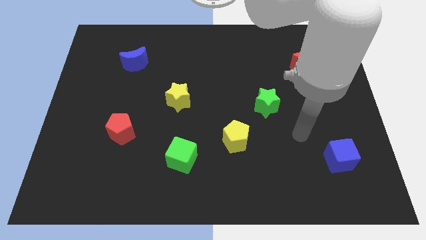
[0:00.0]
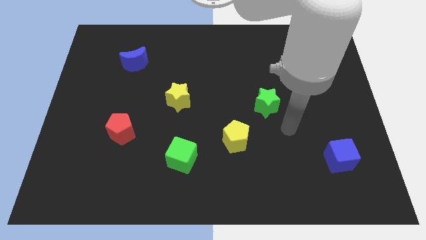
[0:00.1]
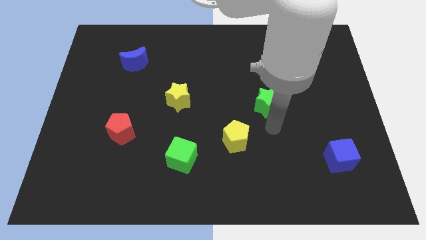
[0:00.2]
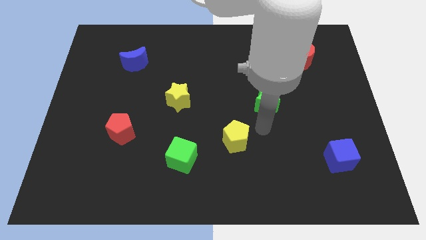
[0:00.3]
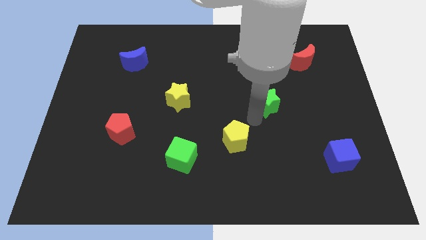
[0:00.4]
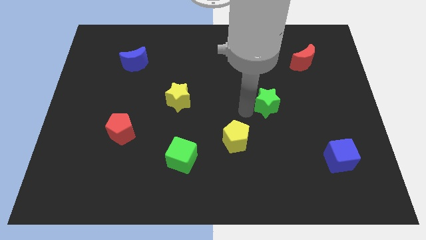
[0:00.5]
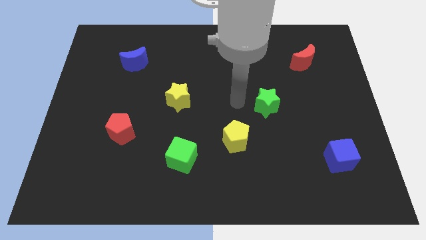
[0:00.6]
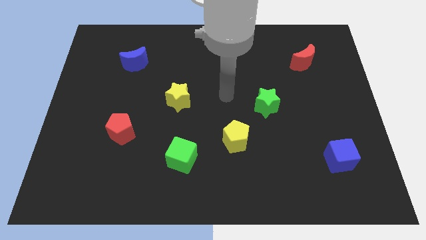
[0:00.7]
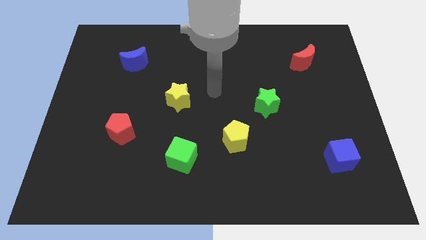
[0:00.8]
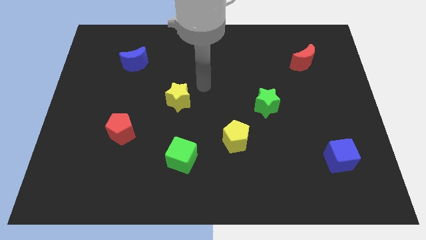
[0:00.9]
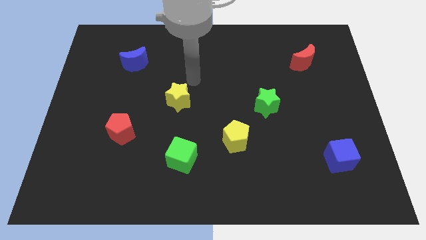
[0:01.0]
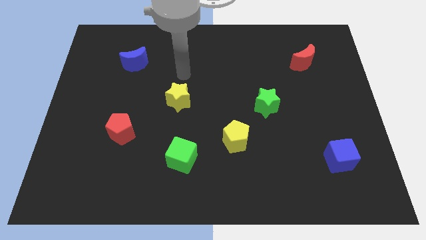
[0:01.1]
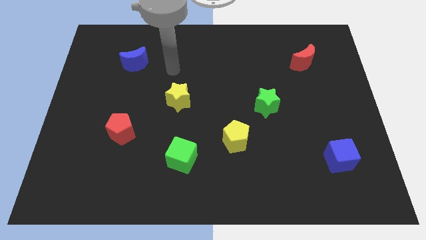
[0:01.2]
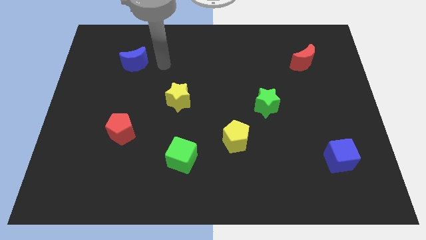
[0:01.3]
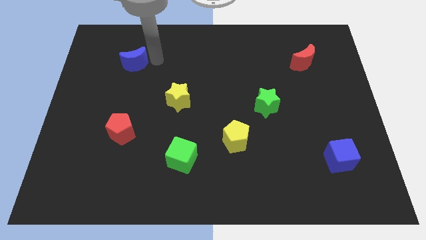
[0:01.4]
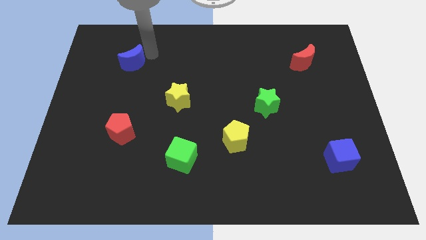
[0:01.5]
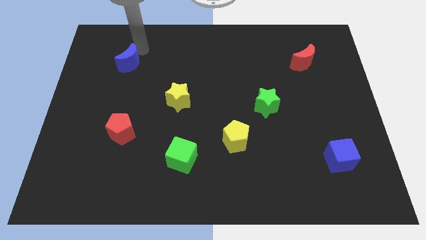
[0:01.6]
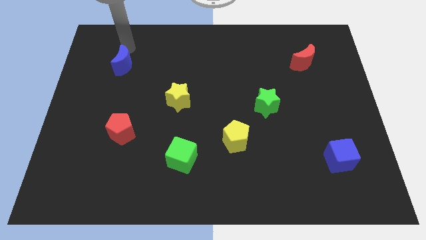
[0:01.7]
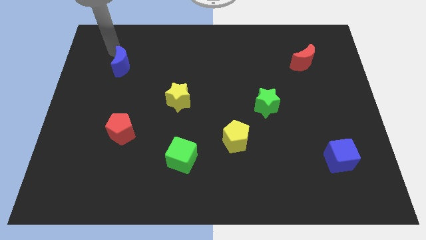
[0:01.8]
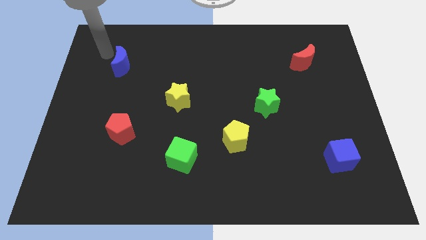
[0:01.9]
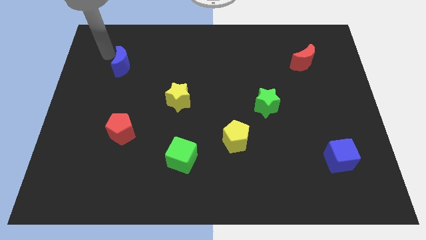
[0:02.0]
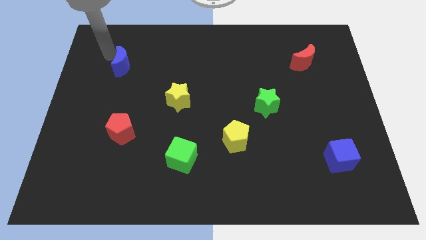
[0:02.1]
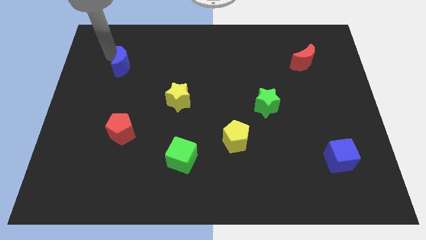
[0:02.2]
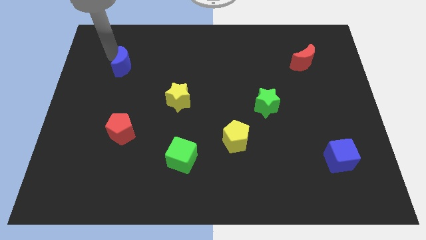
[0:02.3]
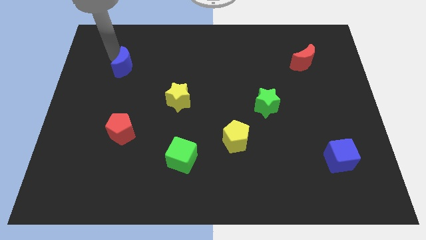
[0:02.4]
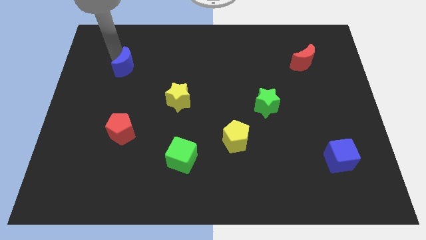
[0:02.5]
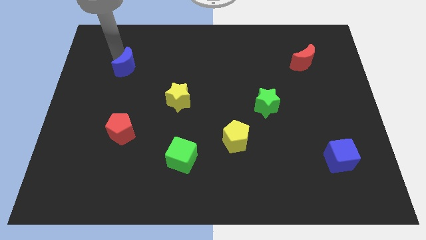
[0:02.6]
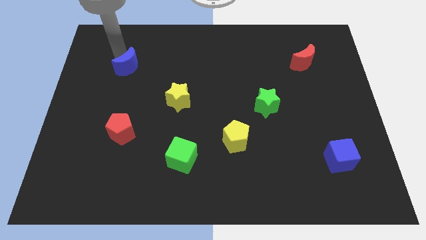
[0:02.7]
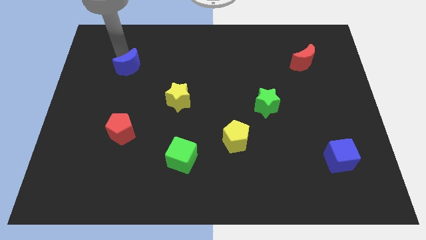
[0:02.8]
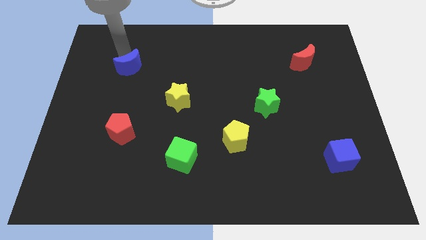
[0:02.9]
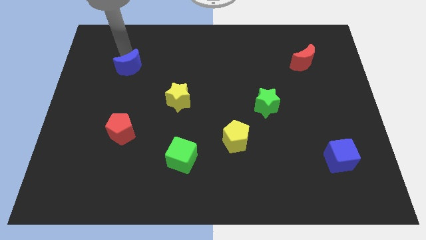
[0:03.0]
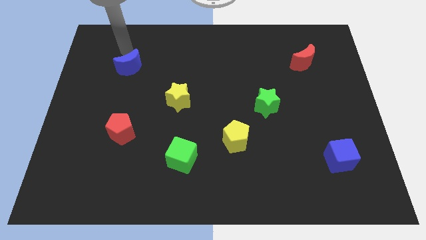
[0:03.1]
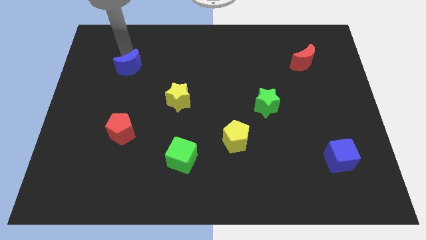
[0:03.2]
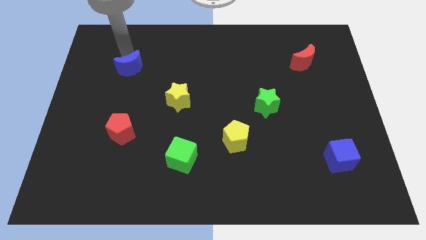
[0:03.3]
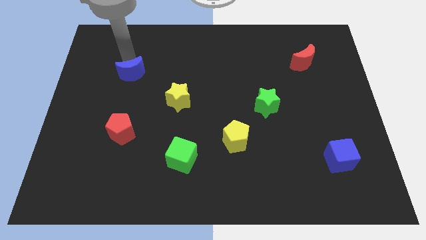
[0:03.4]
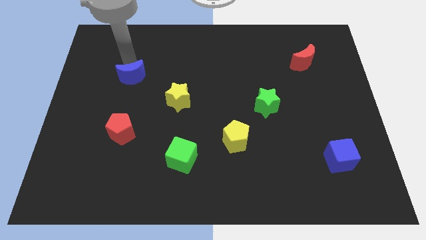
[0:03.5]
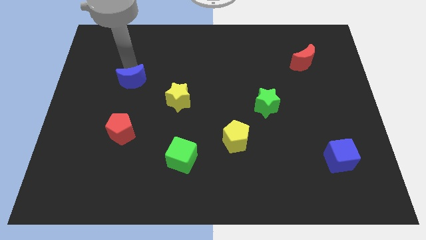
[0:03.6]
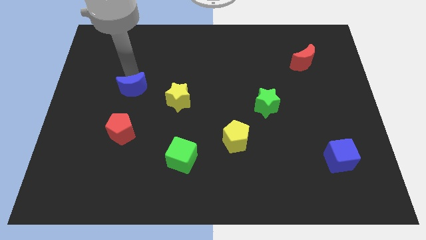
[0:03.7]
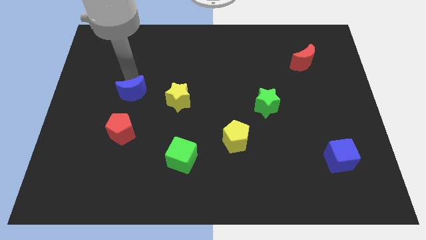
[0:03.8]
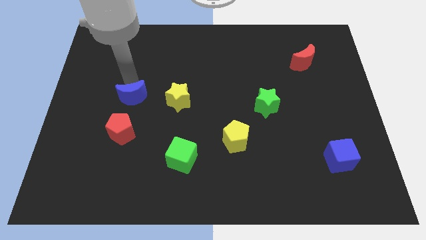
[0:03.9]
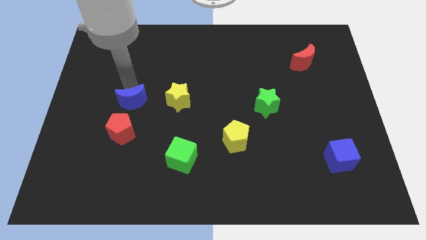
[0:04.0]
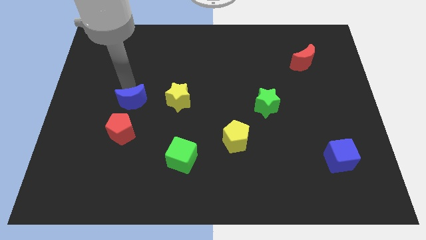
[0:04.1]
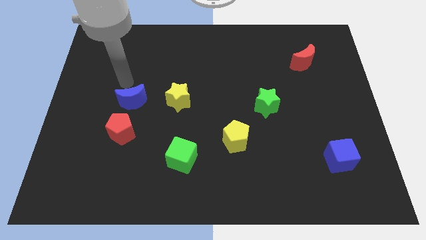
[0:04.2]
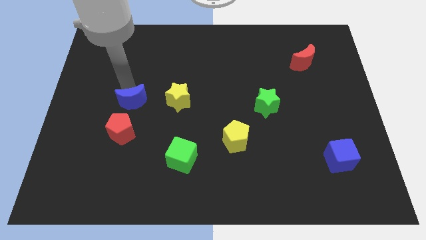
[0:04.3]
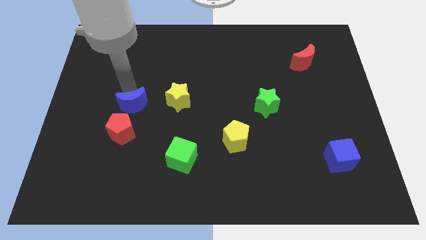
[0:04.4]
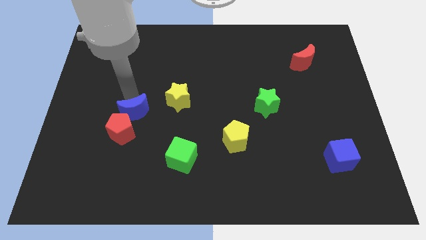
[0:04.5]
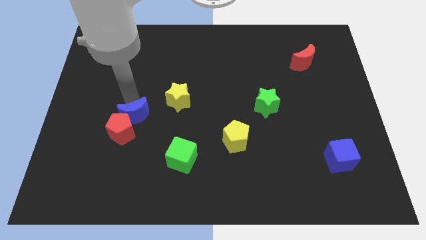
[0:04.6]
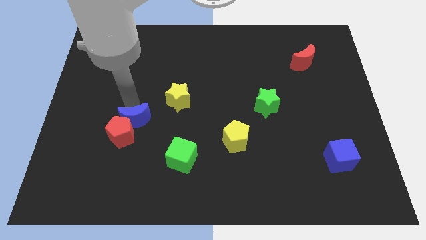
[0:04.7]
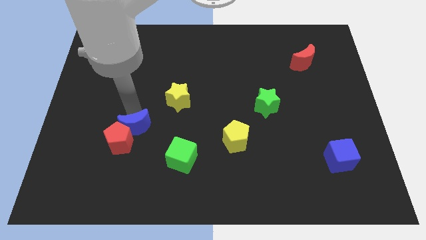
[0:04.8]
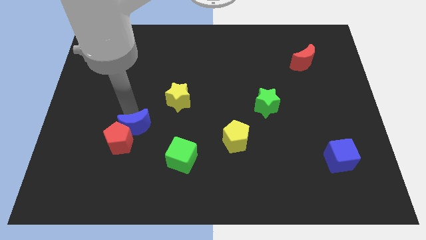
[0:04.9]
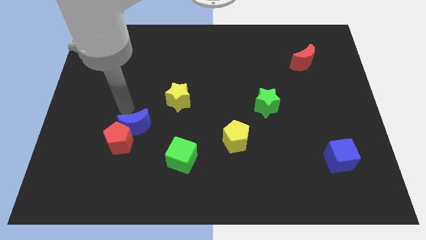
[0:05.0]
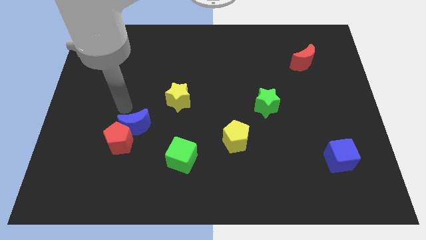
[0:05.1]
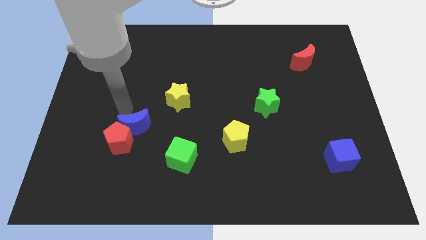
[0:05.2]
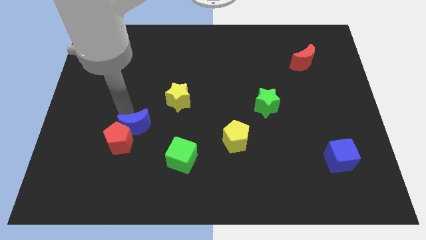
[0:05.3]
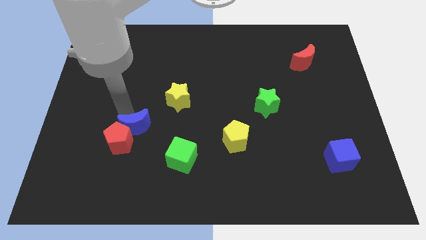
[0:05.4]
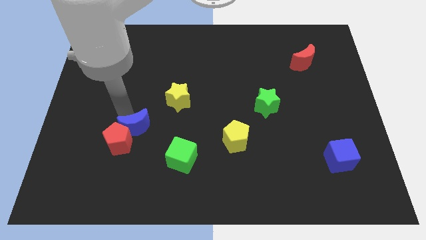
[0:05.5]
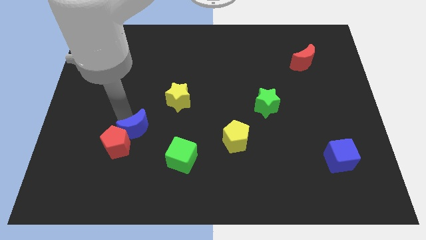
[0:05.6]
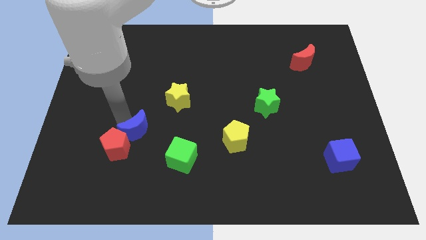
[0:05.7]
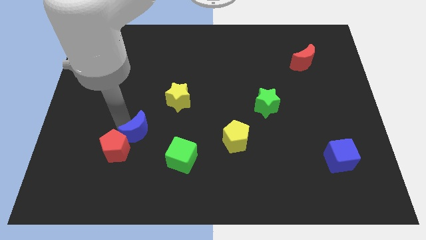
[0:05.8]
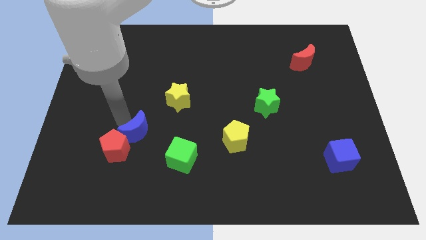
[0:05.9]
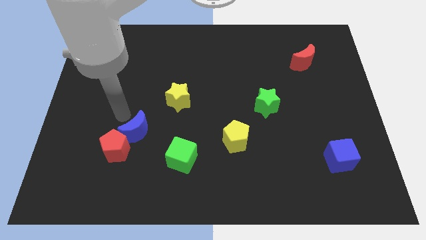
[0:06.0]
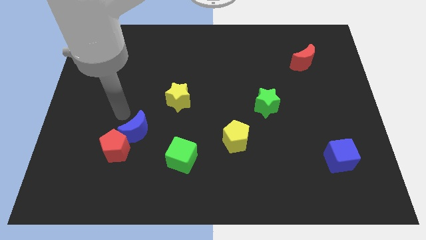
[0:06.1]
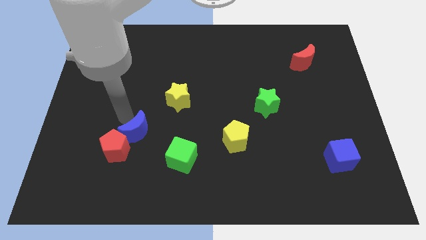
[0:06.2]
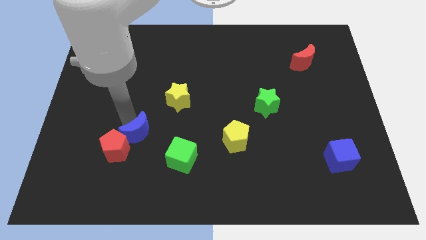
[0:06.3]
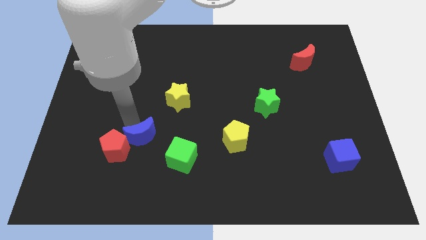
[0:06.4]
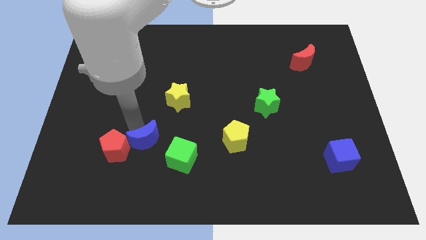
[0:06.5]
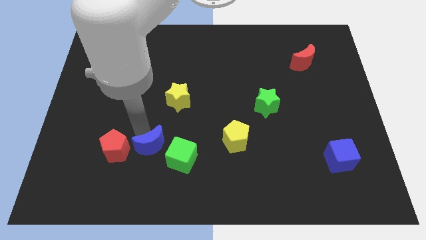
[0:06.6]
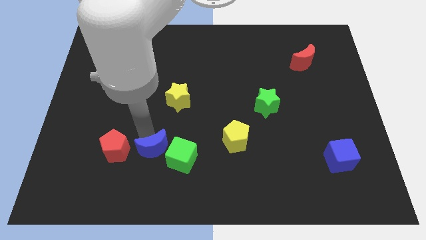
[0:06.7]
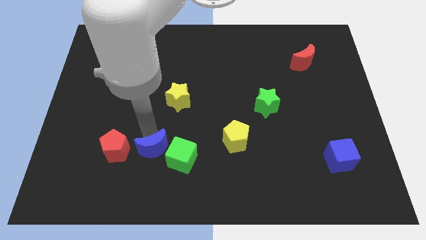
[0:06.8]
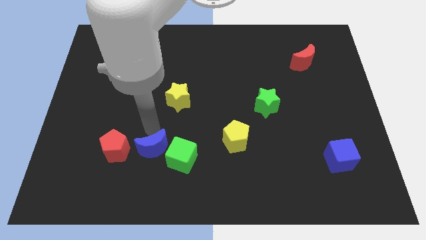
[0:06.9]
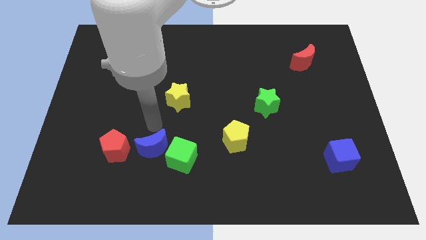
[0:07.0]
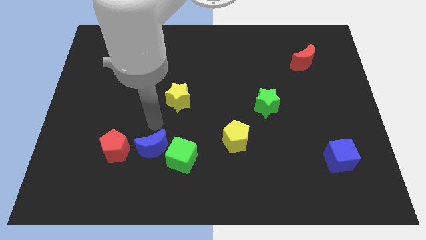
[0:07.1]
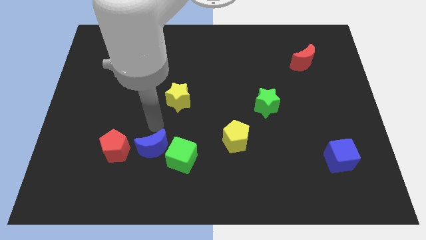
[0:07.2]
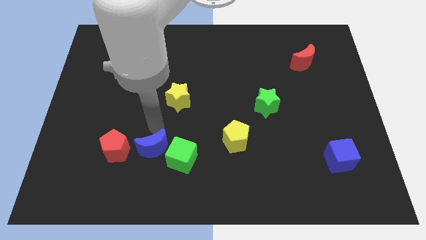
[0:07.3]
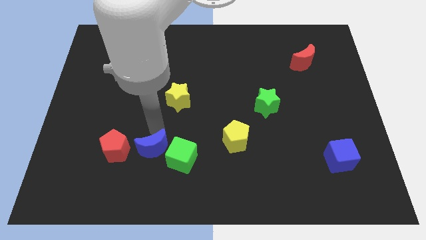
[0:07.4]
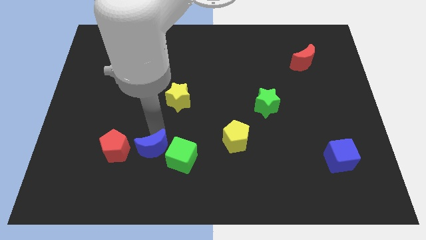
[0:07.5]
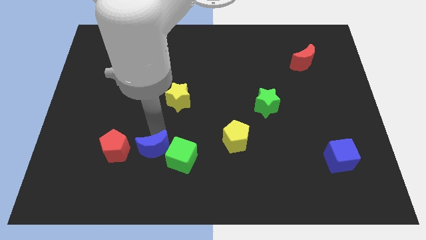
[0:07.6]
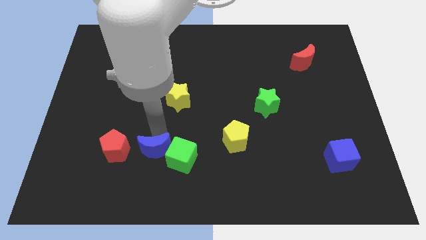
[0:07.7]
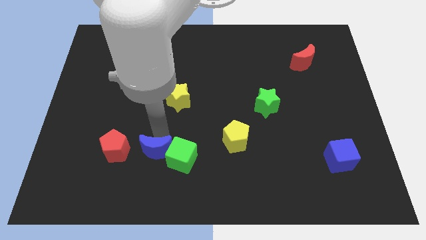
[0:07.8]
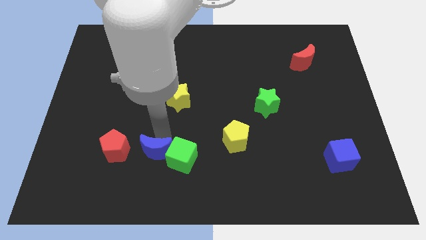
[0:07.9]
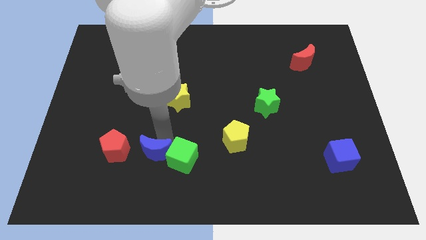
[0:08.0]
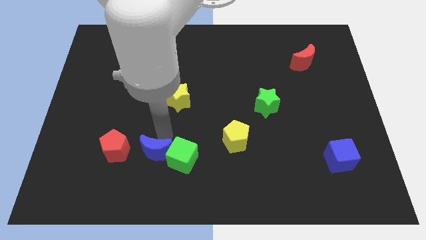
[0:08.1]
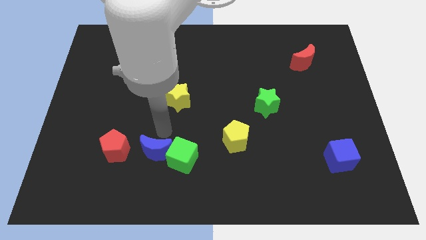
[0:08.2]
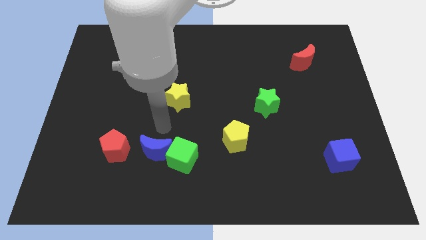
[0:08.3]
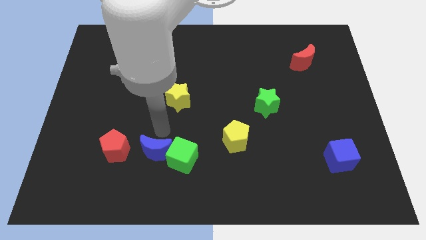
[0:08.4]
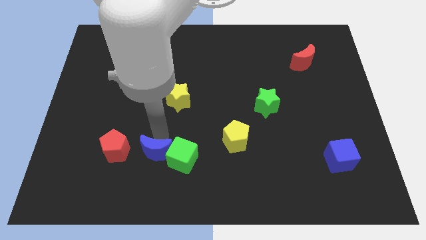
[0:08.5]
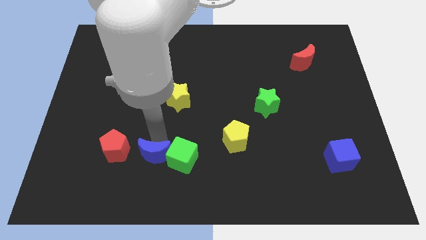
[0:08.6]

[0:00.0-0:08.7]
slide the blue moon to the bottom left side of the green cube
